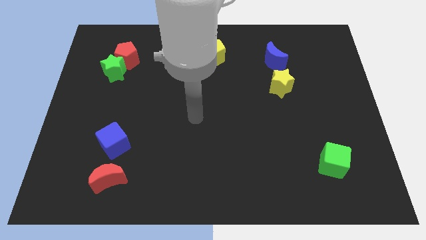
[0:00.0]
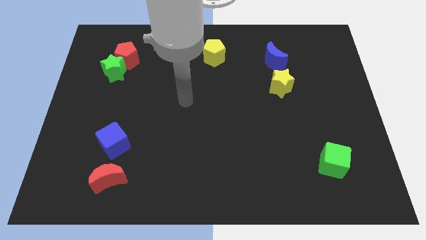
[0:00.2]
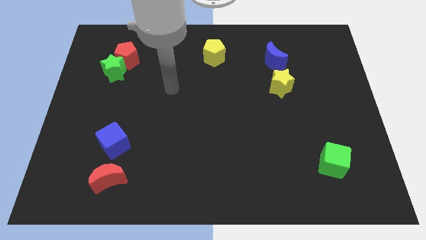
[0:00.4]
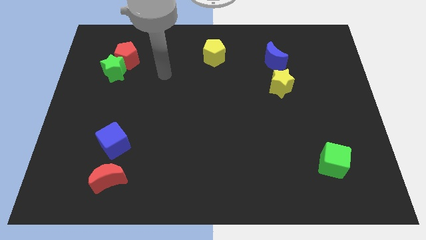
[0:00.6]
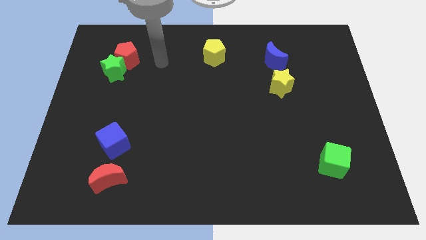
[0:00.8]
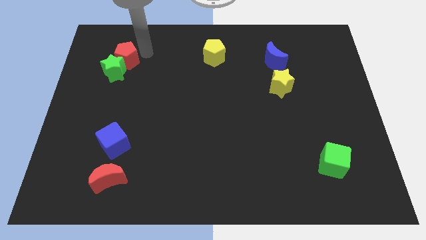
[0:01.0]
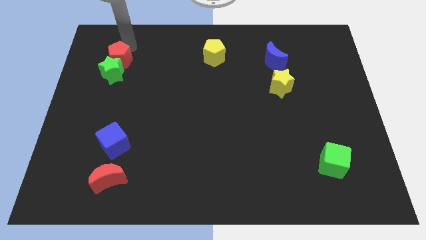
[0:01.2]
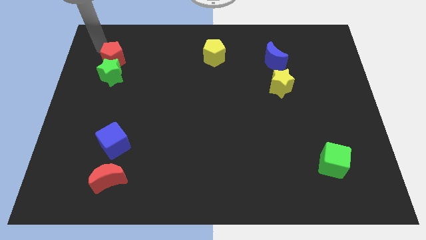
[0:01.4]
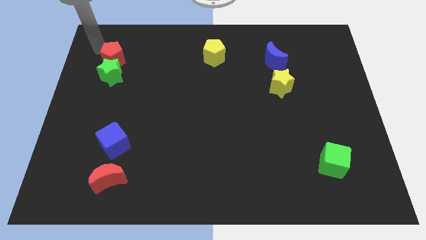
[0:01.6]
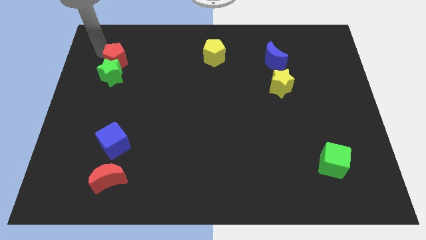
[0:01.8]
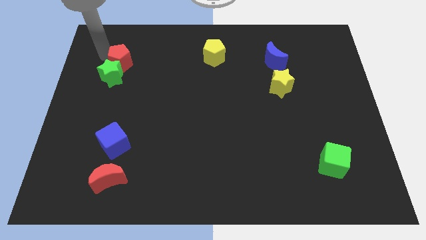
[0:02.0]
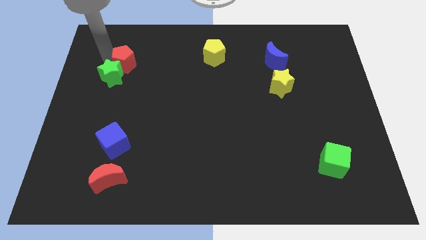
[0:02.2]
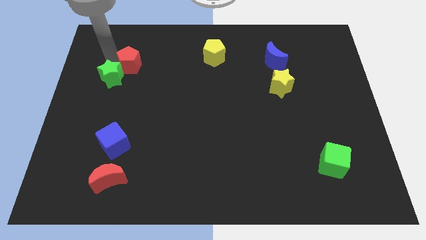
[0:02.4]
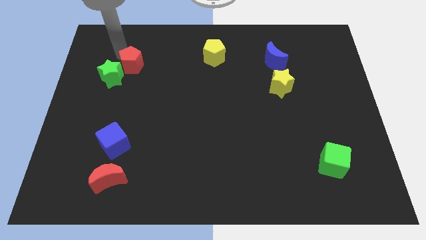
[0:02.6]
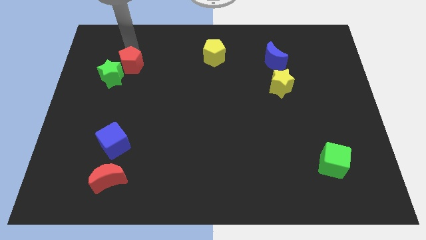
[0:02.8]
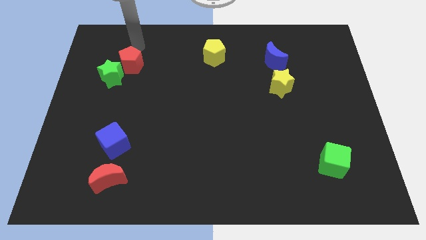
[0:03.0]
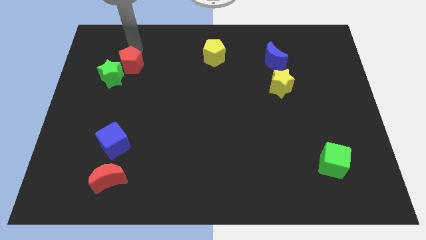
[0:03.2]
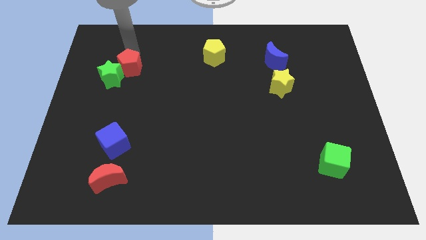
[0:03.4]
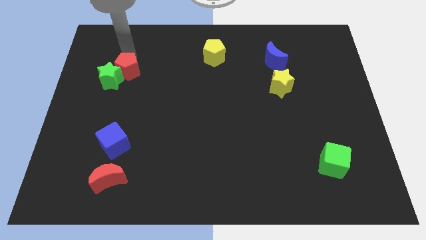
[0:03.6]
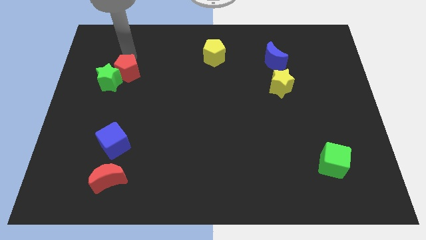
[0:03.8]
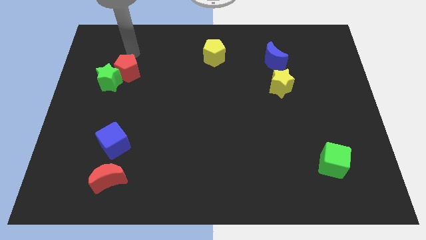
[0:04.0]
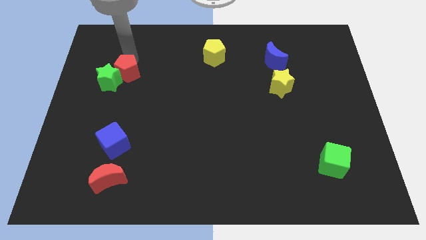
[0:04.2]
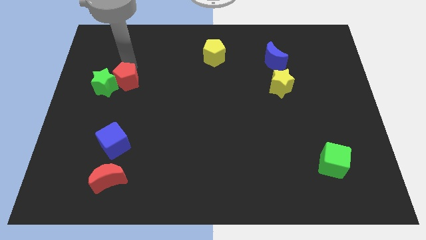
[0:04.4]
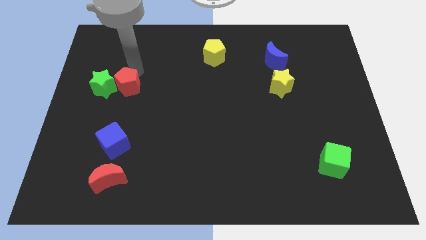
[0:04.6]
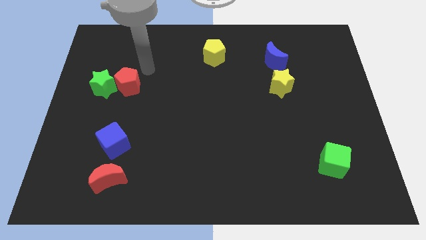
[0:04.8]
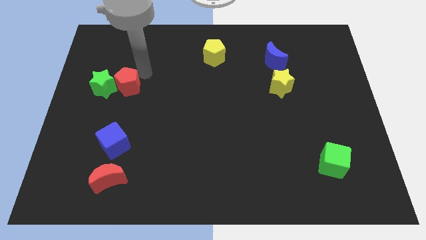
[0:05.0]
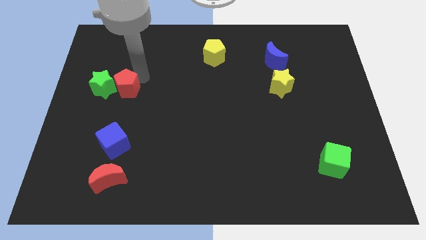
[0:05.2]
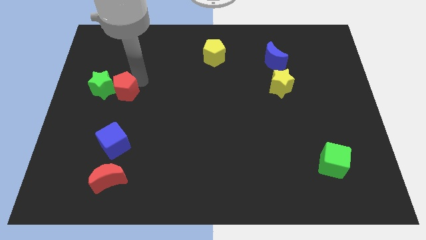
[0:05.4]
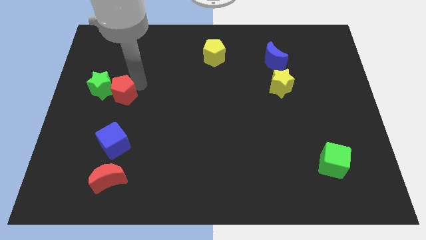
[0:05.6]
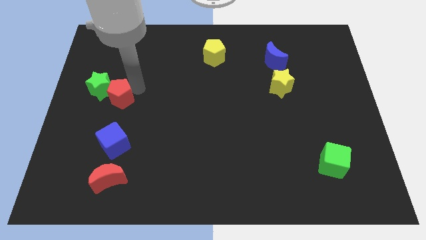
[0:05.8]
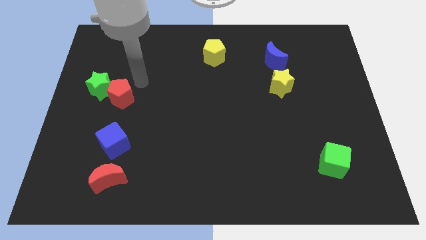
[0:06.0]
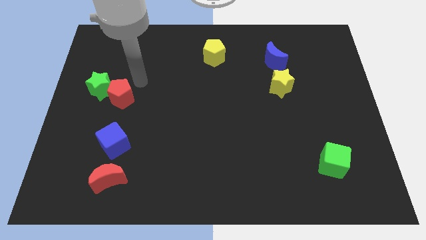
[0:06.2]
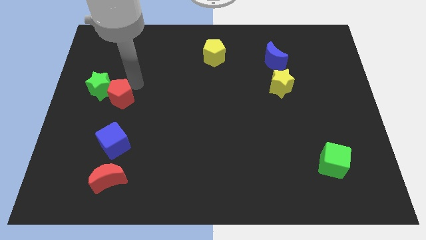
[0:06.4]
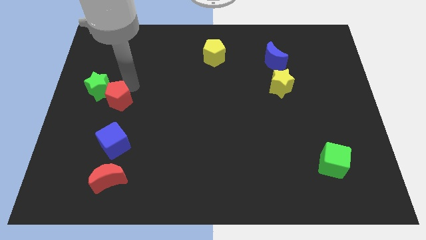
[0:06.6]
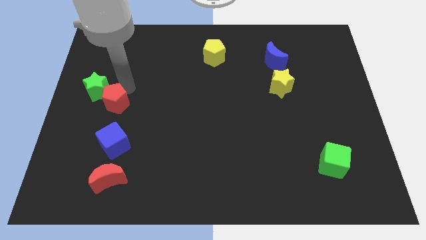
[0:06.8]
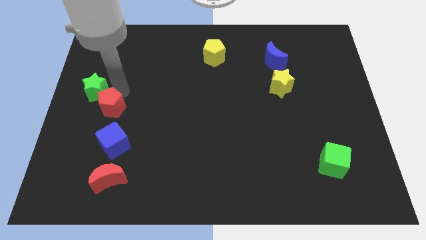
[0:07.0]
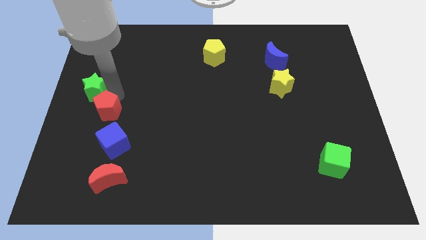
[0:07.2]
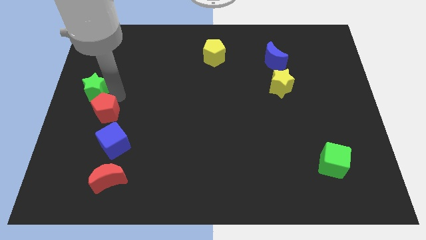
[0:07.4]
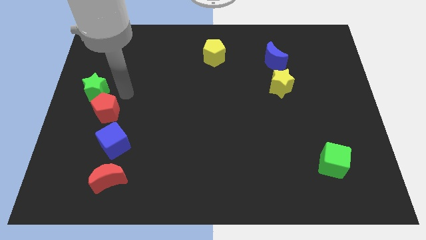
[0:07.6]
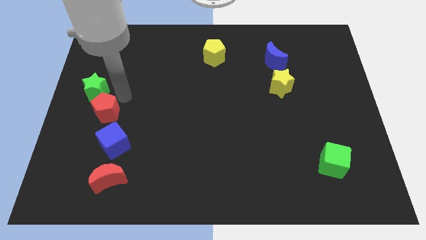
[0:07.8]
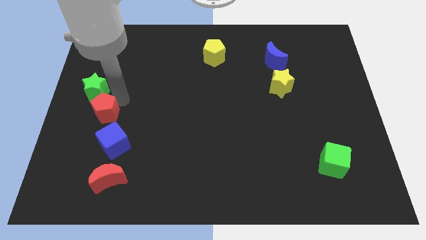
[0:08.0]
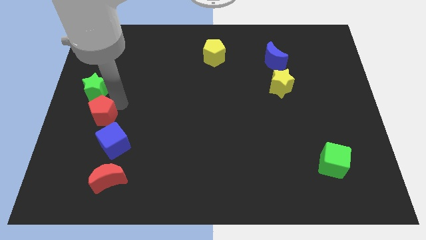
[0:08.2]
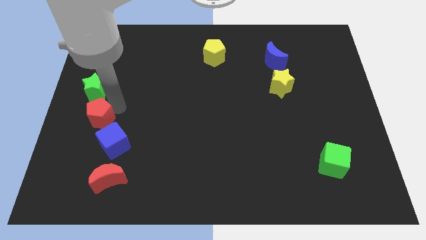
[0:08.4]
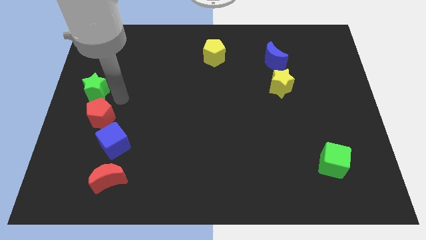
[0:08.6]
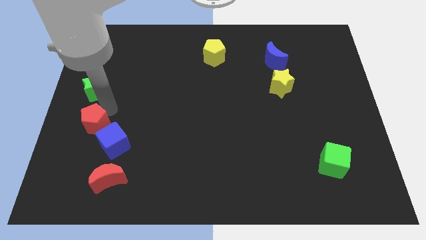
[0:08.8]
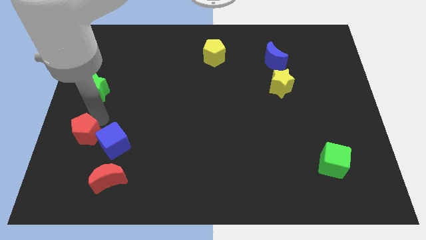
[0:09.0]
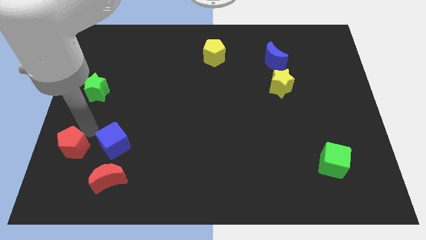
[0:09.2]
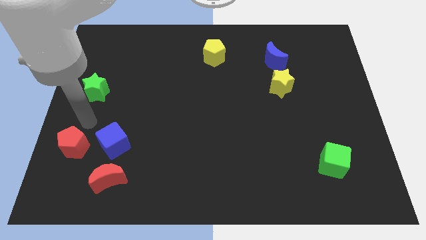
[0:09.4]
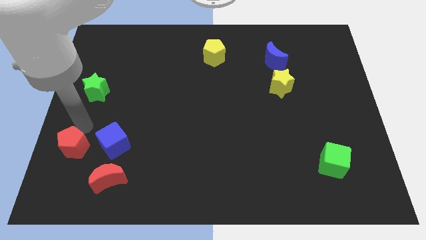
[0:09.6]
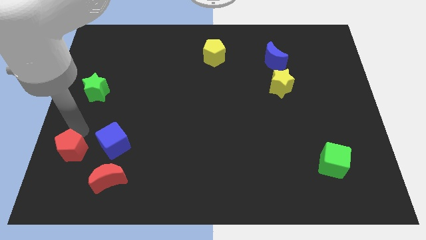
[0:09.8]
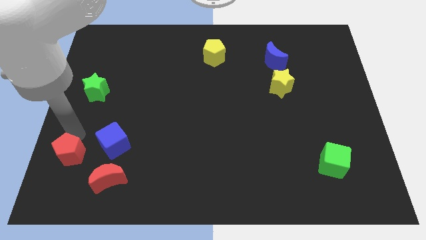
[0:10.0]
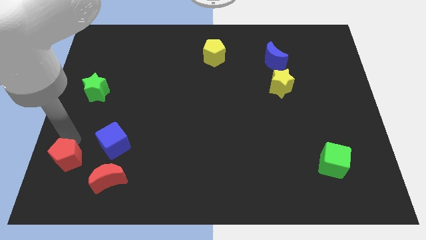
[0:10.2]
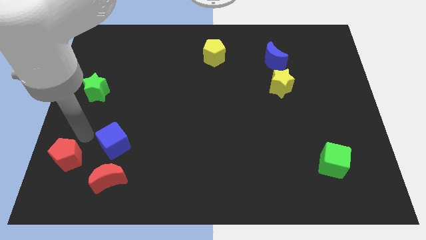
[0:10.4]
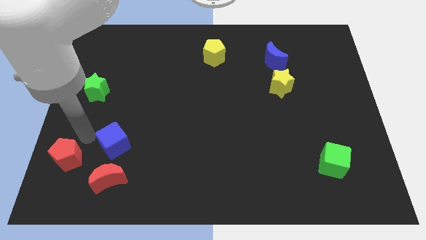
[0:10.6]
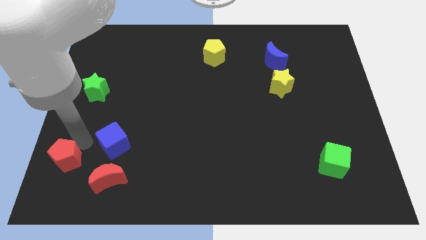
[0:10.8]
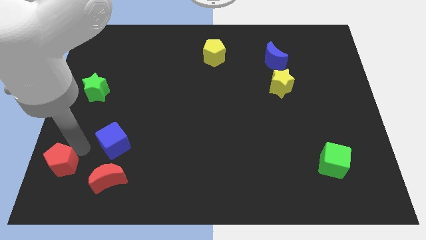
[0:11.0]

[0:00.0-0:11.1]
put the red pentagon to the bottom left

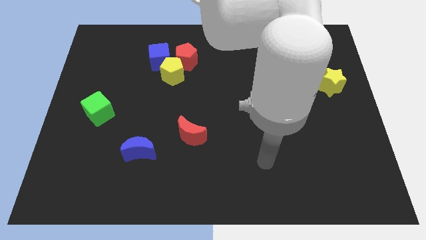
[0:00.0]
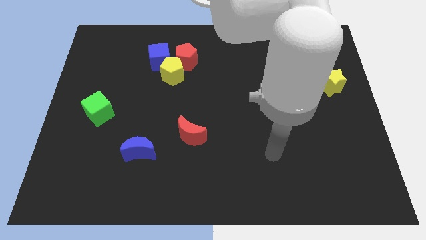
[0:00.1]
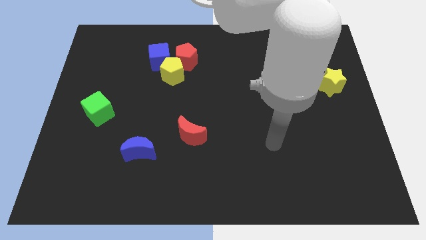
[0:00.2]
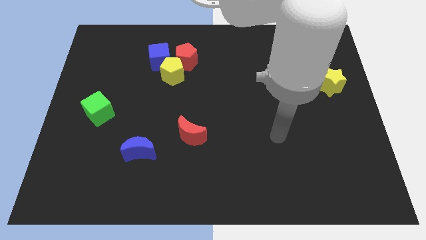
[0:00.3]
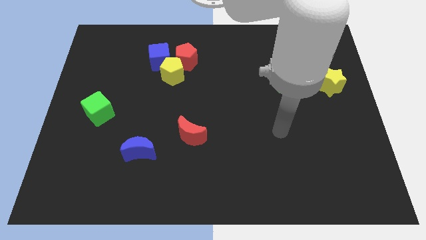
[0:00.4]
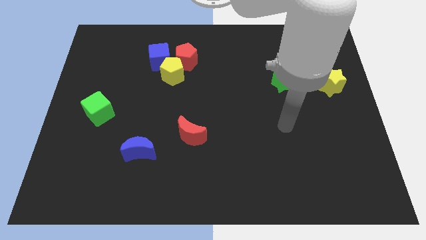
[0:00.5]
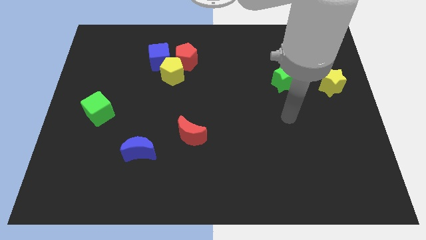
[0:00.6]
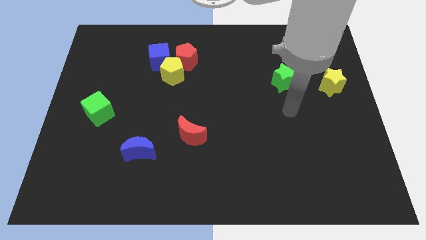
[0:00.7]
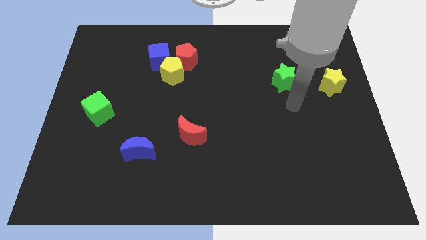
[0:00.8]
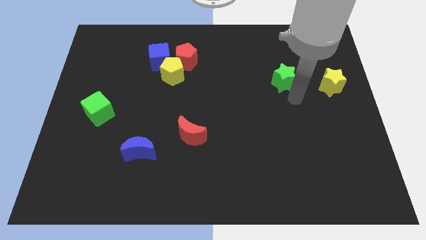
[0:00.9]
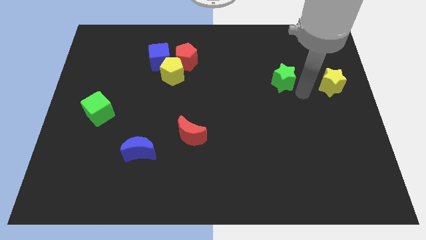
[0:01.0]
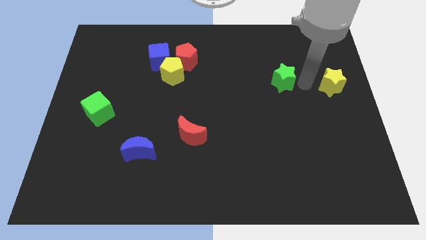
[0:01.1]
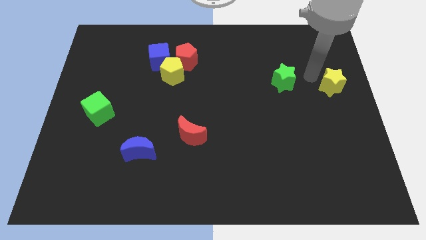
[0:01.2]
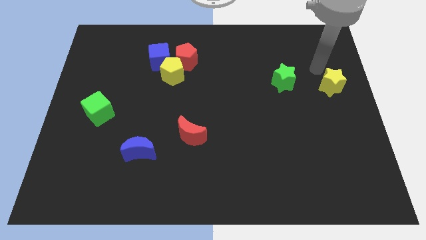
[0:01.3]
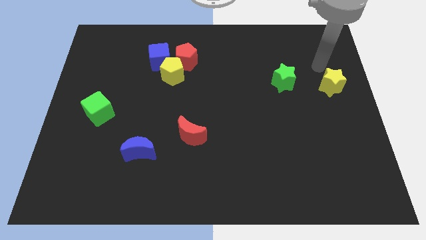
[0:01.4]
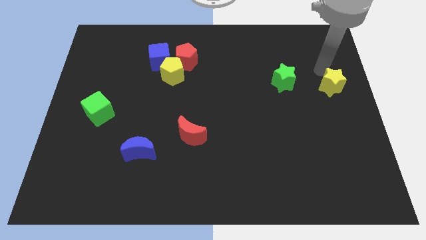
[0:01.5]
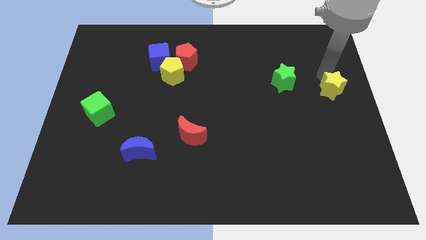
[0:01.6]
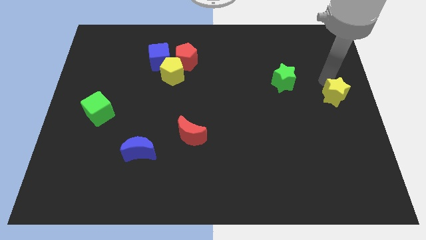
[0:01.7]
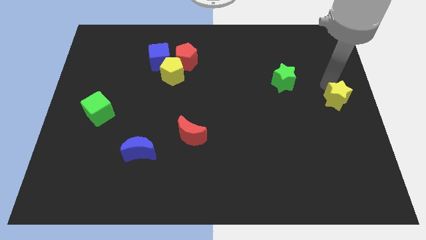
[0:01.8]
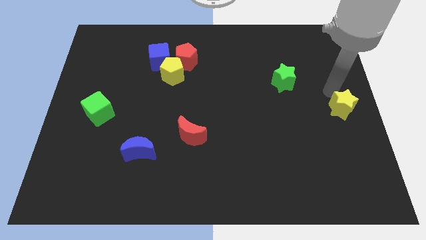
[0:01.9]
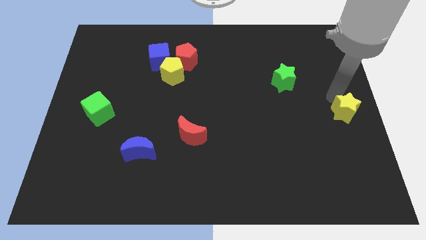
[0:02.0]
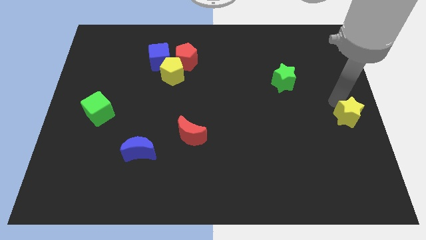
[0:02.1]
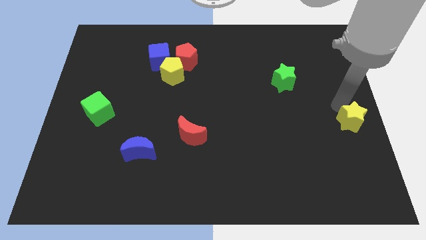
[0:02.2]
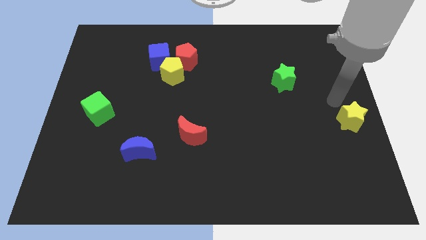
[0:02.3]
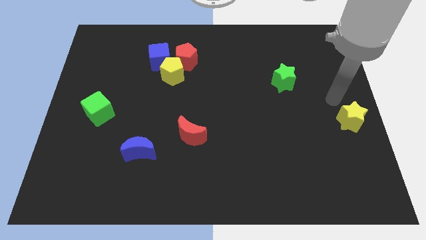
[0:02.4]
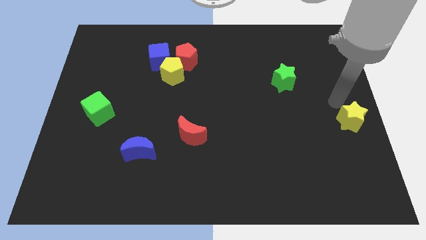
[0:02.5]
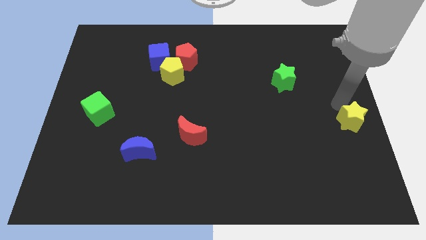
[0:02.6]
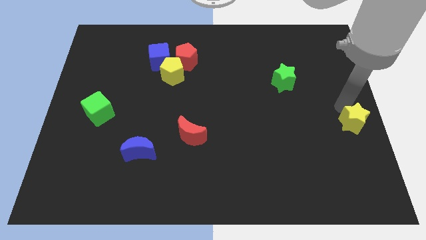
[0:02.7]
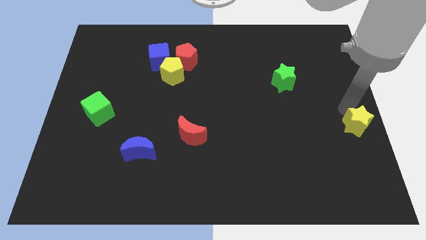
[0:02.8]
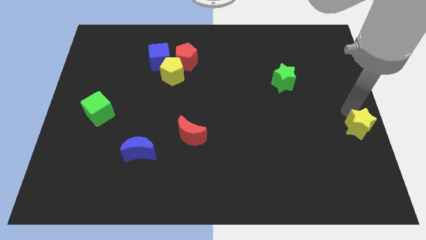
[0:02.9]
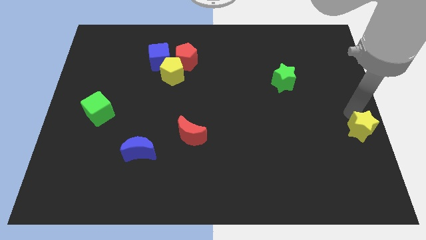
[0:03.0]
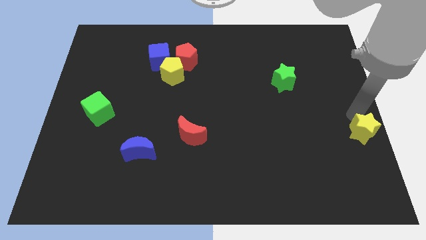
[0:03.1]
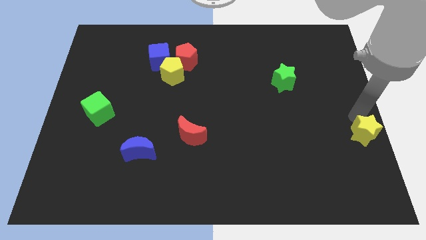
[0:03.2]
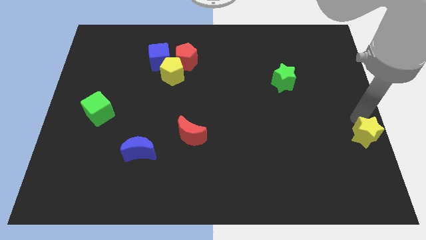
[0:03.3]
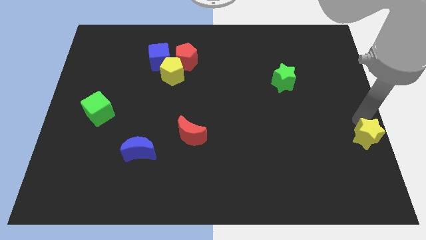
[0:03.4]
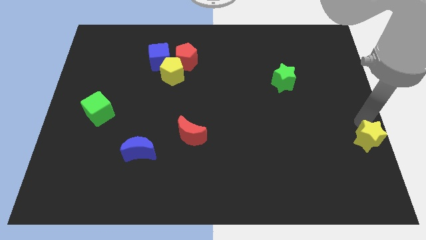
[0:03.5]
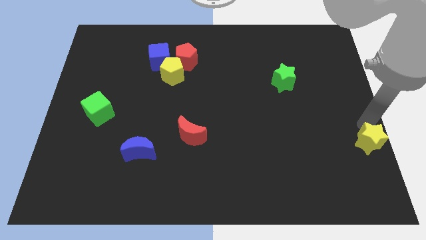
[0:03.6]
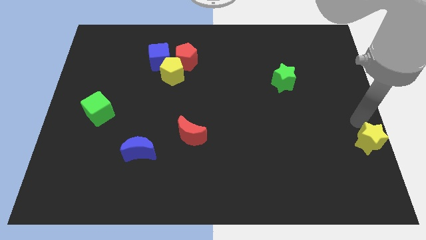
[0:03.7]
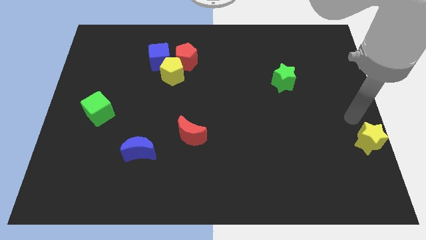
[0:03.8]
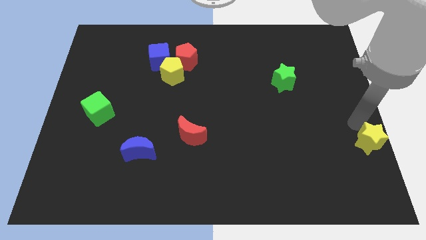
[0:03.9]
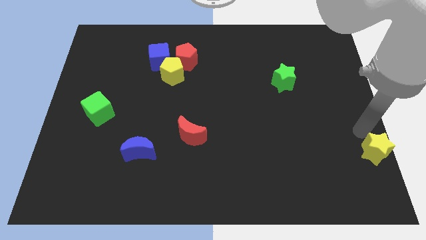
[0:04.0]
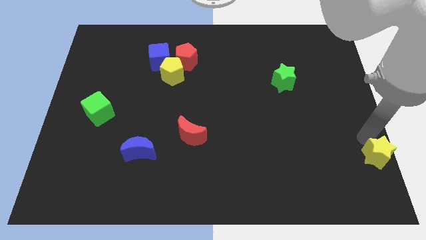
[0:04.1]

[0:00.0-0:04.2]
move the yellow star to the bottom right
